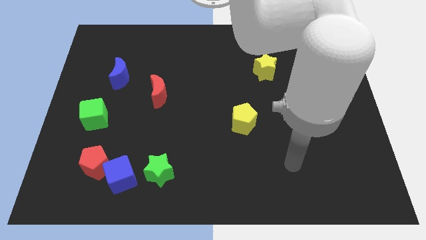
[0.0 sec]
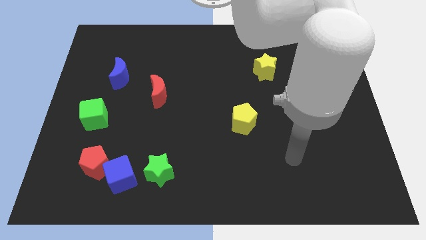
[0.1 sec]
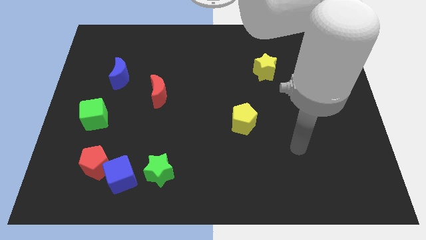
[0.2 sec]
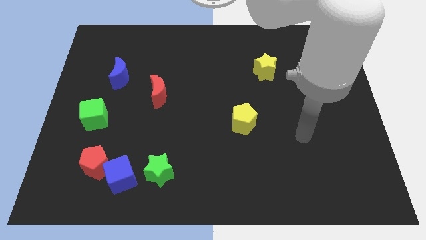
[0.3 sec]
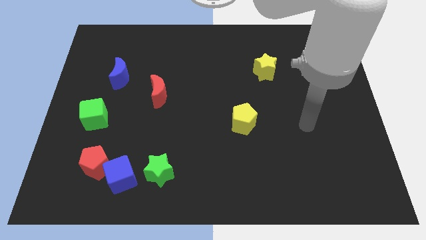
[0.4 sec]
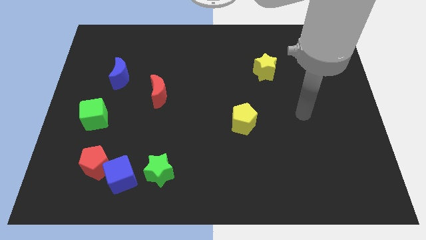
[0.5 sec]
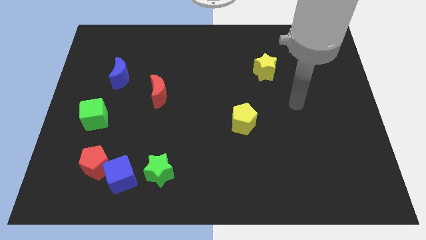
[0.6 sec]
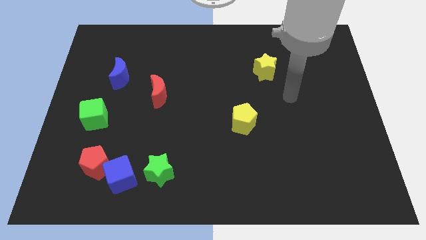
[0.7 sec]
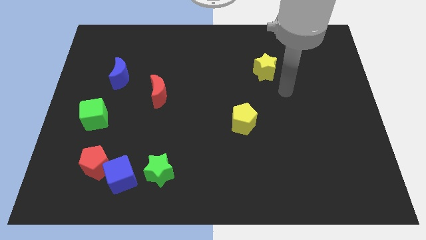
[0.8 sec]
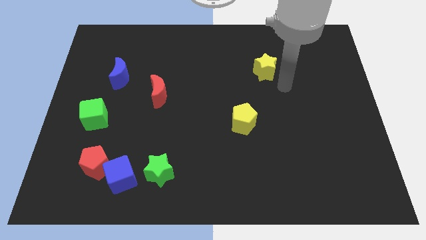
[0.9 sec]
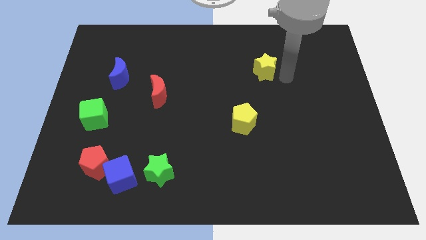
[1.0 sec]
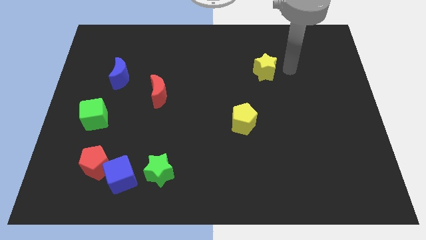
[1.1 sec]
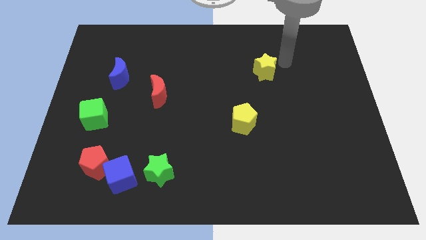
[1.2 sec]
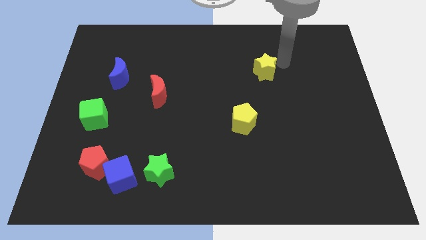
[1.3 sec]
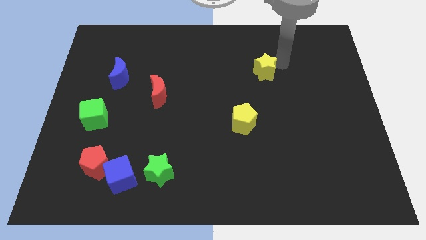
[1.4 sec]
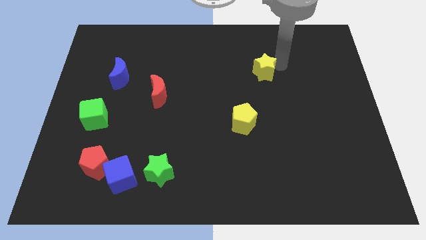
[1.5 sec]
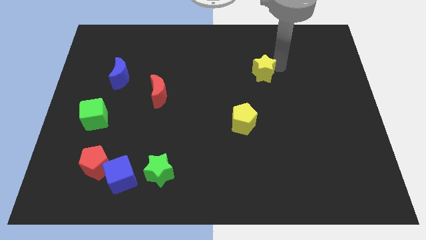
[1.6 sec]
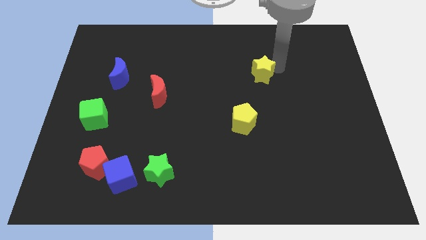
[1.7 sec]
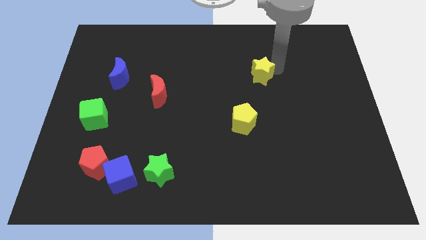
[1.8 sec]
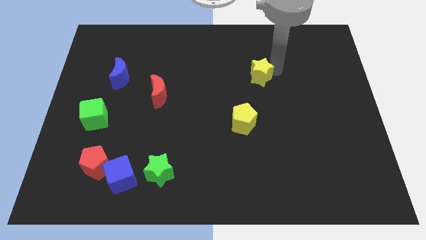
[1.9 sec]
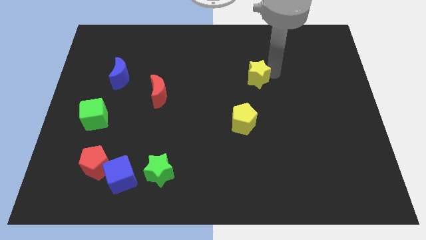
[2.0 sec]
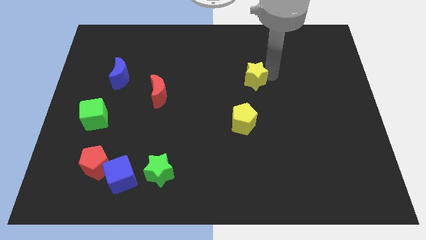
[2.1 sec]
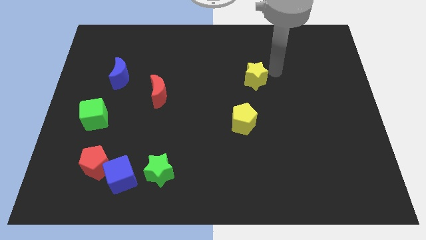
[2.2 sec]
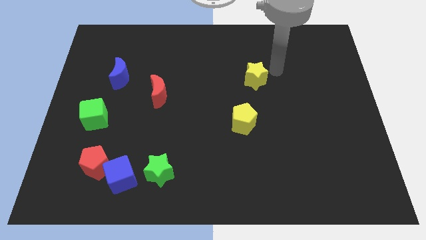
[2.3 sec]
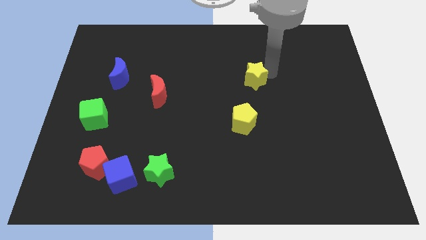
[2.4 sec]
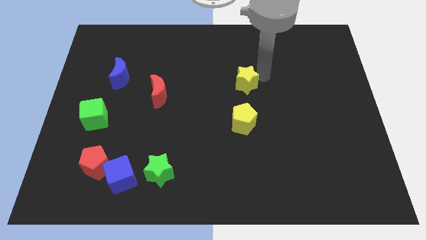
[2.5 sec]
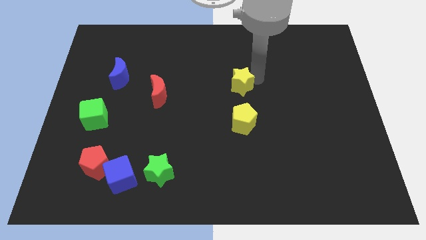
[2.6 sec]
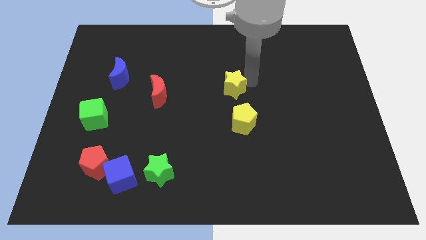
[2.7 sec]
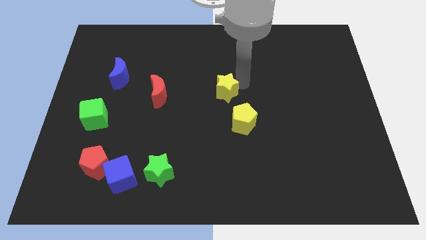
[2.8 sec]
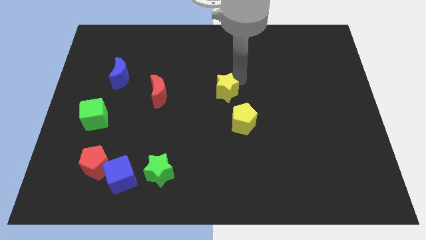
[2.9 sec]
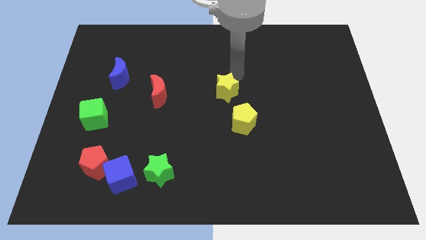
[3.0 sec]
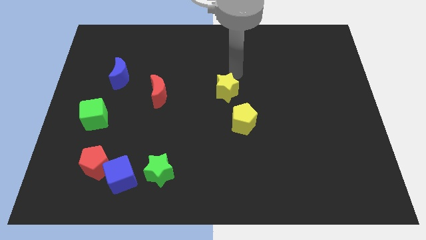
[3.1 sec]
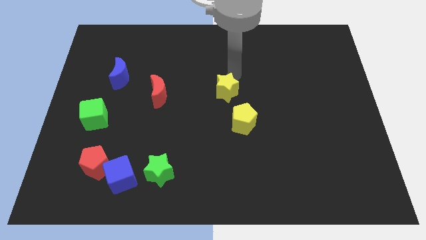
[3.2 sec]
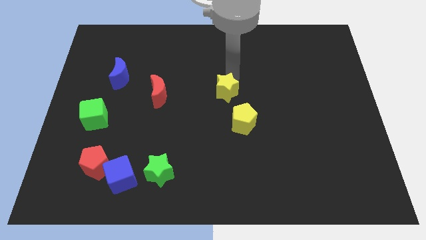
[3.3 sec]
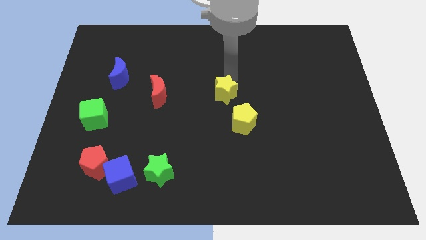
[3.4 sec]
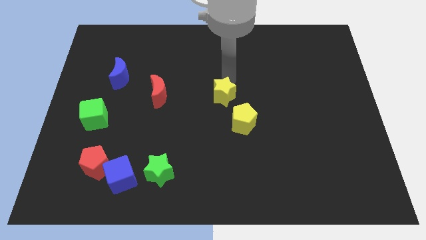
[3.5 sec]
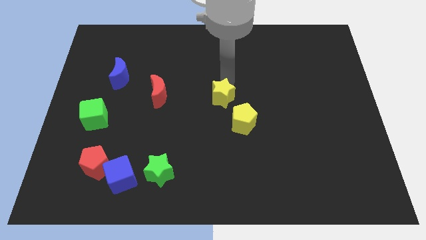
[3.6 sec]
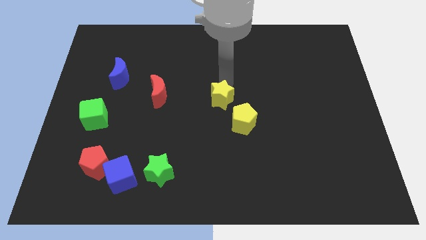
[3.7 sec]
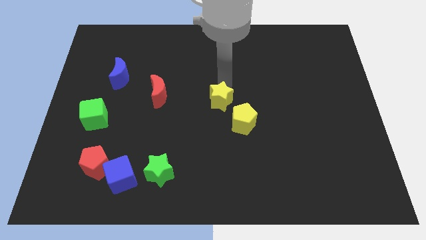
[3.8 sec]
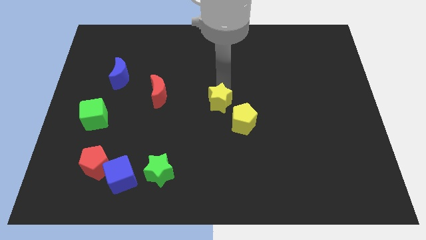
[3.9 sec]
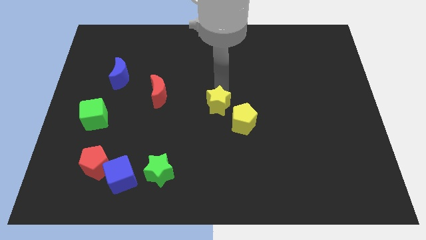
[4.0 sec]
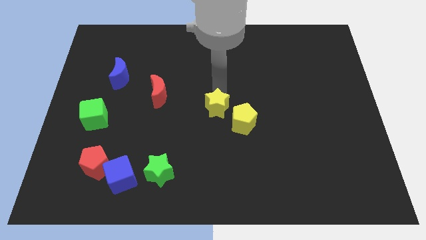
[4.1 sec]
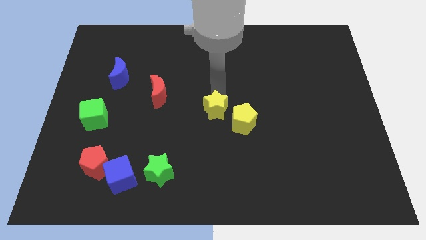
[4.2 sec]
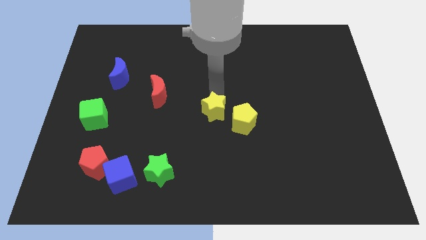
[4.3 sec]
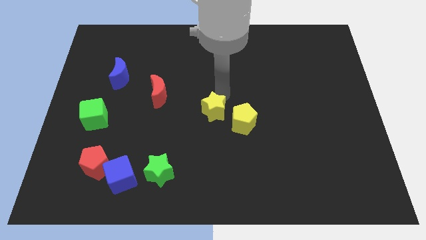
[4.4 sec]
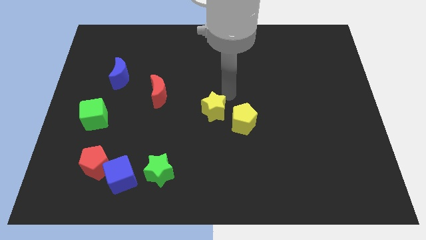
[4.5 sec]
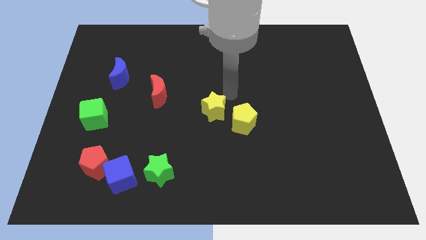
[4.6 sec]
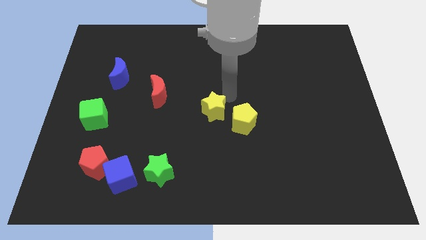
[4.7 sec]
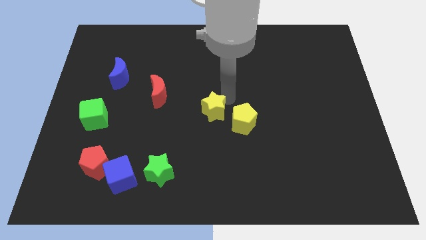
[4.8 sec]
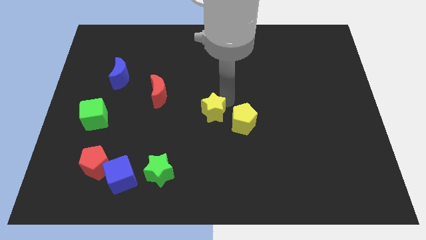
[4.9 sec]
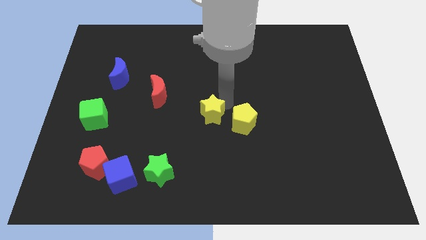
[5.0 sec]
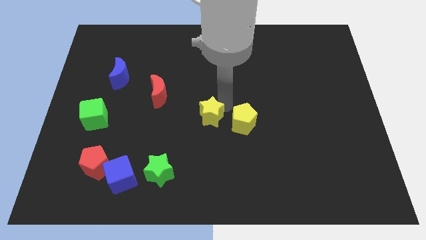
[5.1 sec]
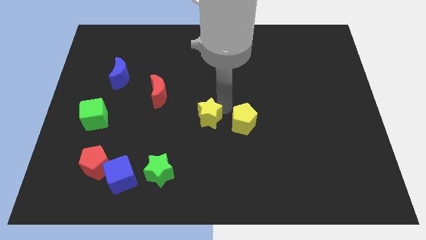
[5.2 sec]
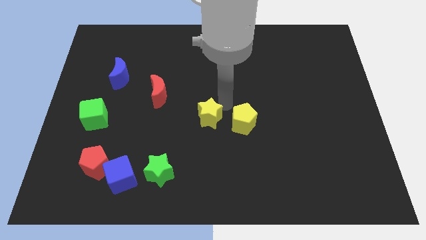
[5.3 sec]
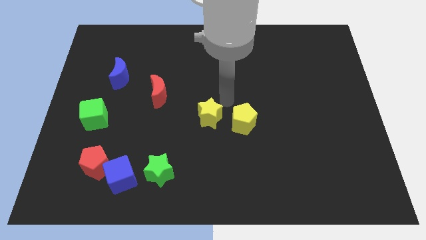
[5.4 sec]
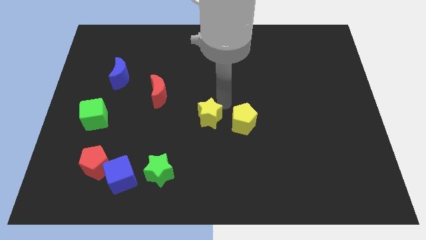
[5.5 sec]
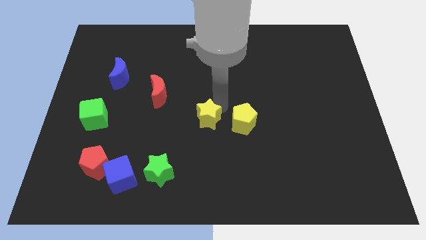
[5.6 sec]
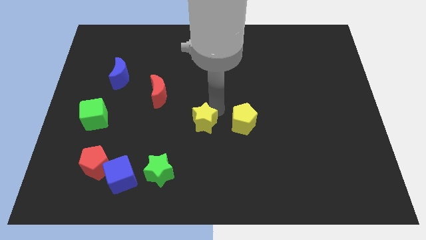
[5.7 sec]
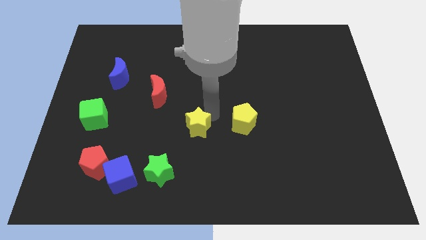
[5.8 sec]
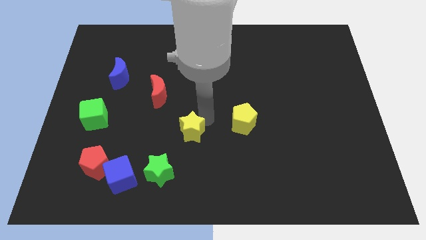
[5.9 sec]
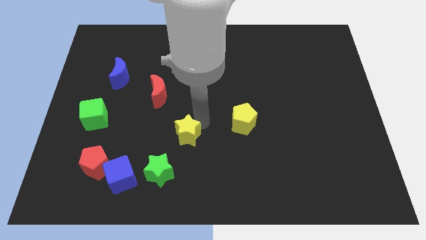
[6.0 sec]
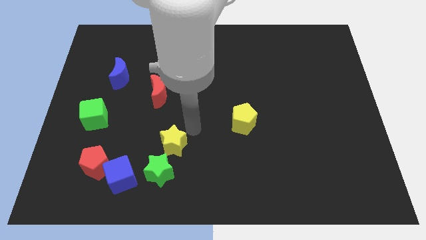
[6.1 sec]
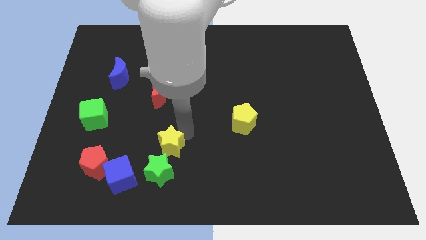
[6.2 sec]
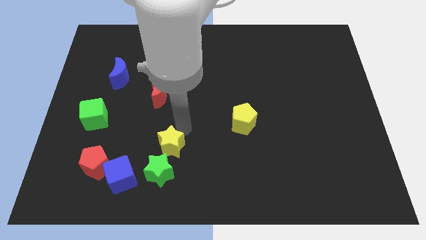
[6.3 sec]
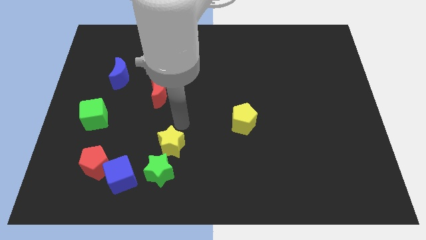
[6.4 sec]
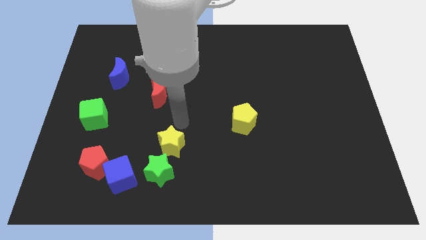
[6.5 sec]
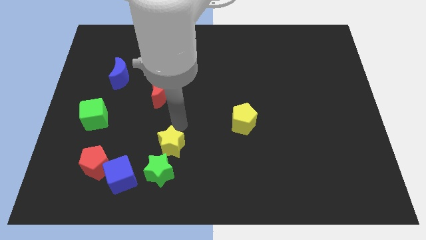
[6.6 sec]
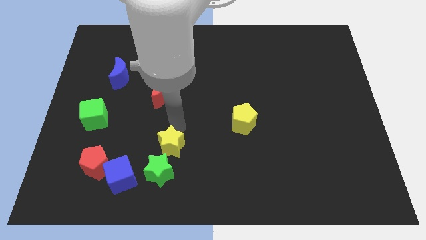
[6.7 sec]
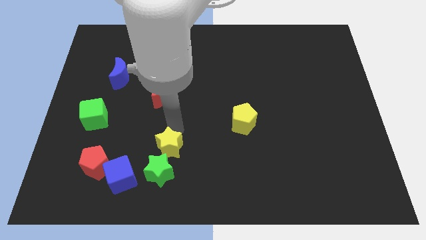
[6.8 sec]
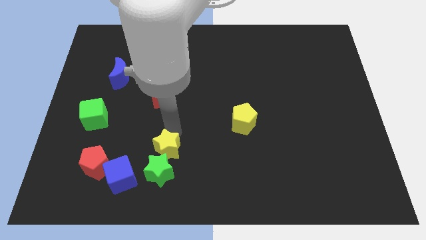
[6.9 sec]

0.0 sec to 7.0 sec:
push the yellow star close to the green star
